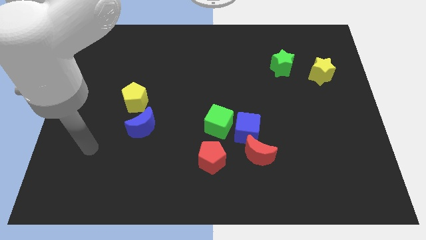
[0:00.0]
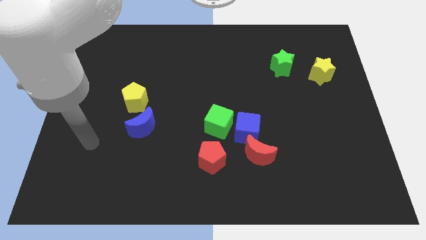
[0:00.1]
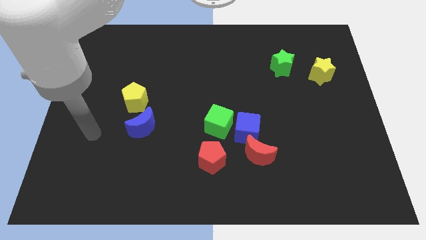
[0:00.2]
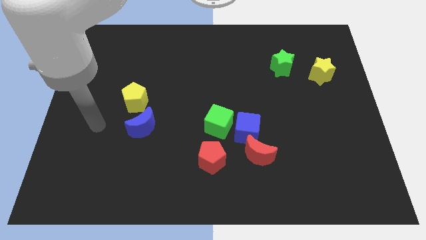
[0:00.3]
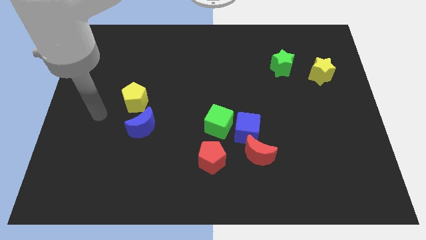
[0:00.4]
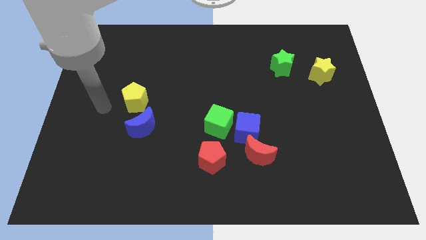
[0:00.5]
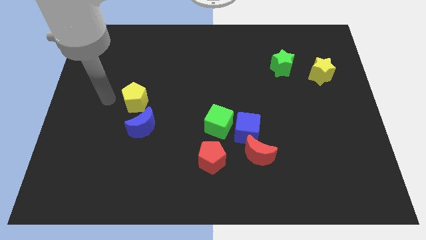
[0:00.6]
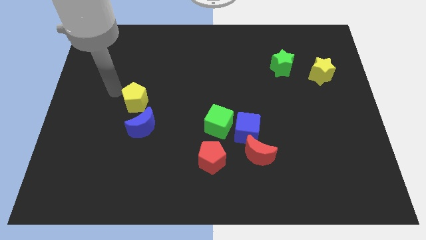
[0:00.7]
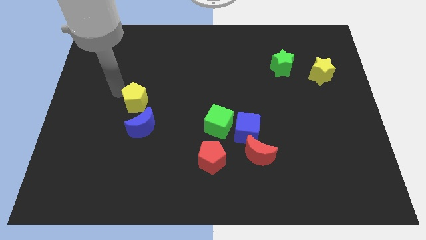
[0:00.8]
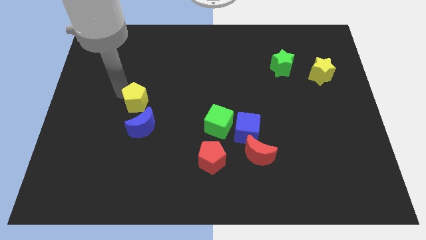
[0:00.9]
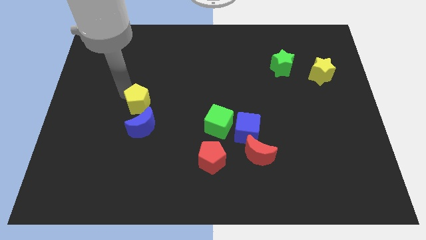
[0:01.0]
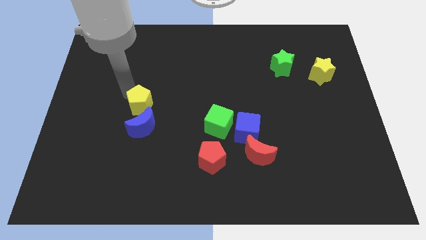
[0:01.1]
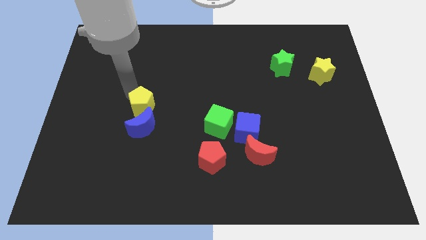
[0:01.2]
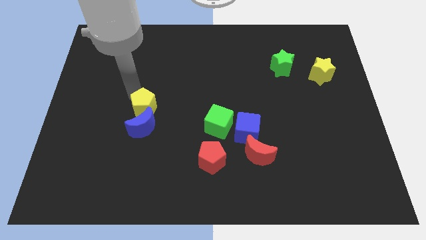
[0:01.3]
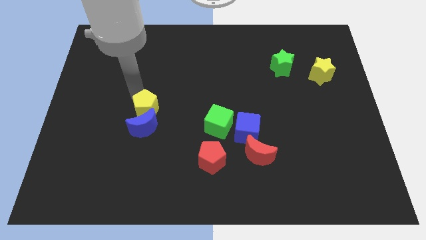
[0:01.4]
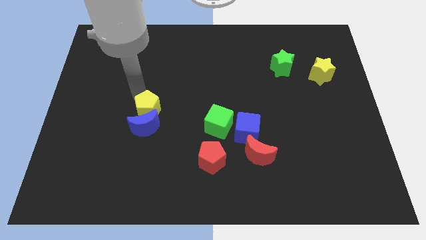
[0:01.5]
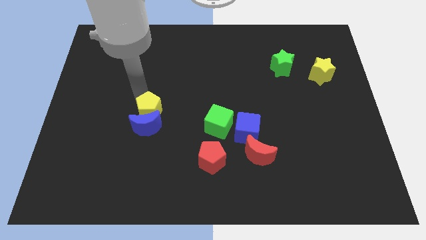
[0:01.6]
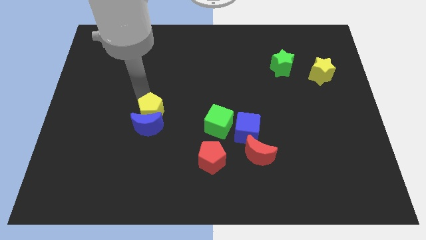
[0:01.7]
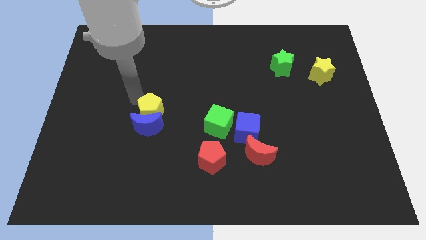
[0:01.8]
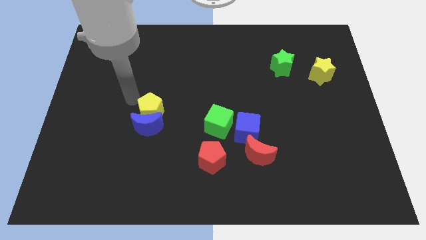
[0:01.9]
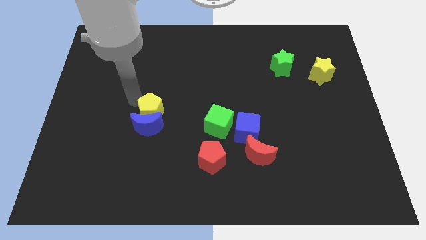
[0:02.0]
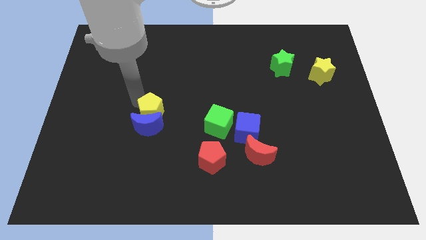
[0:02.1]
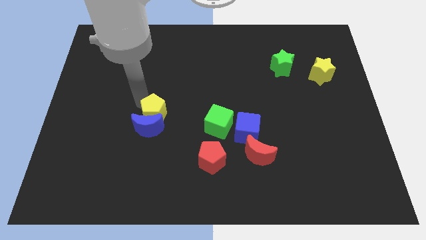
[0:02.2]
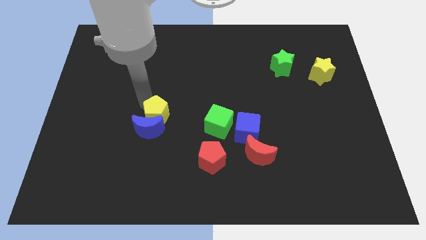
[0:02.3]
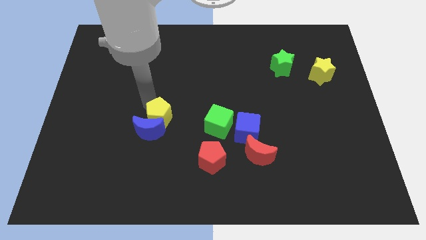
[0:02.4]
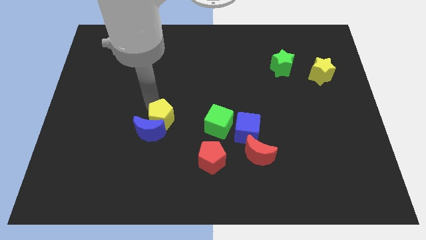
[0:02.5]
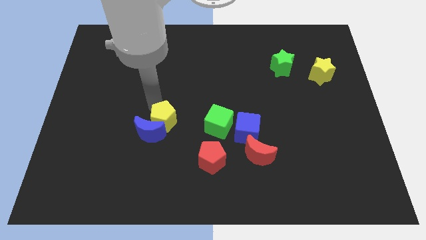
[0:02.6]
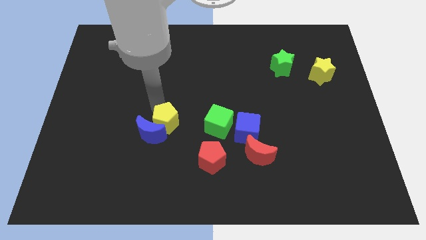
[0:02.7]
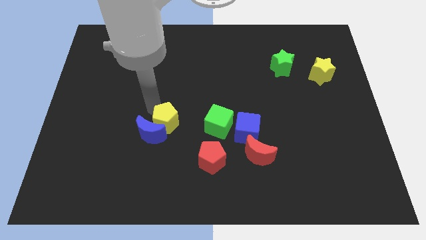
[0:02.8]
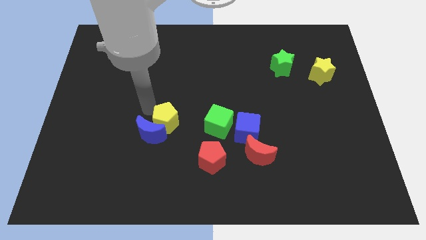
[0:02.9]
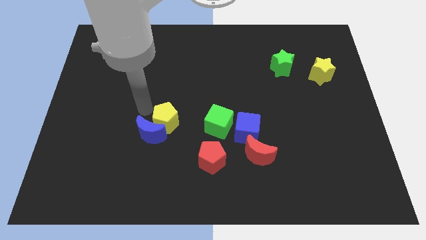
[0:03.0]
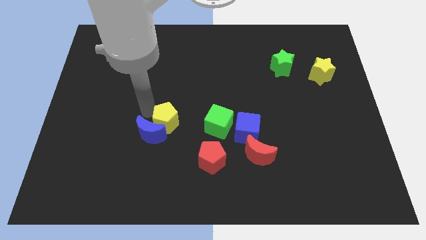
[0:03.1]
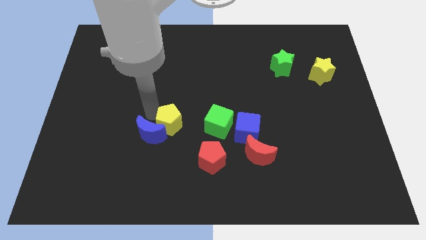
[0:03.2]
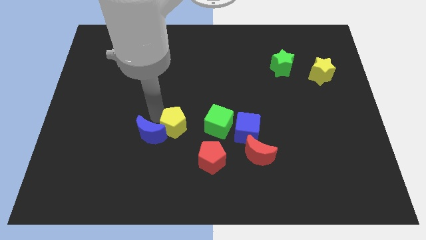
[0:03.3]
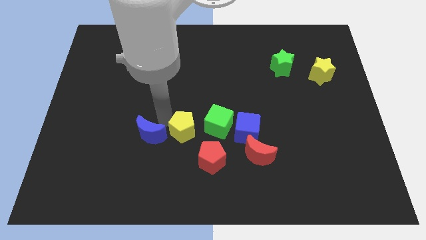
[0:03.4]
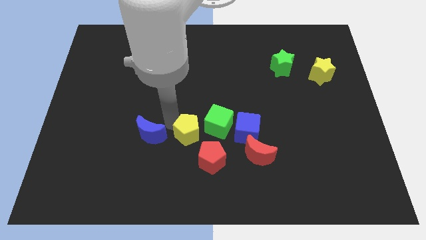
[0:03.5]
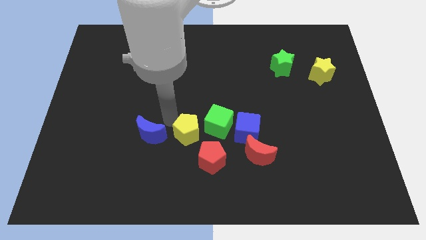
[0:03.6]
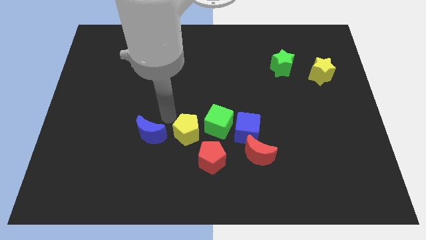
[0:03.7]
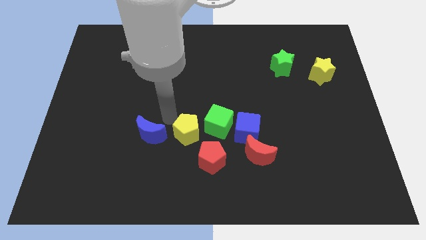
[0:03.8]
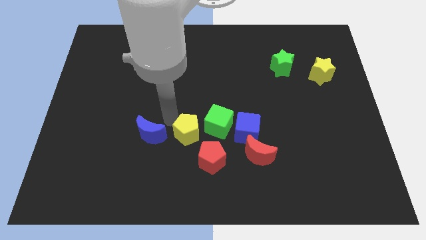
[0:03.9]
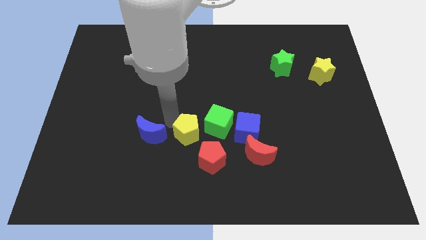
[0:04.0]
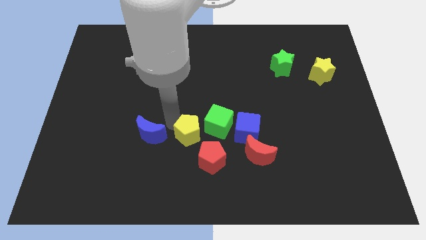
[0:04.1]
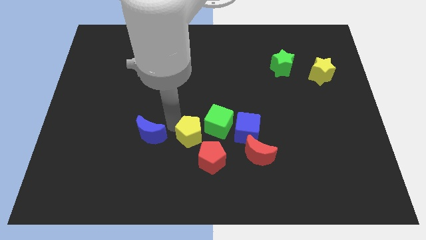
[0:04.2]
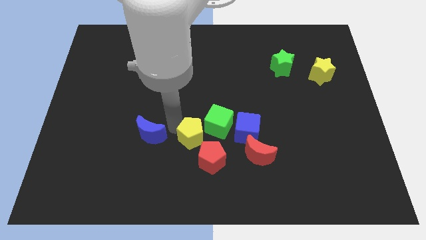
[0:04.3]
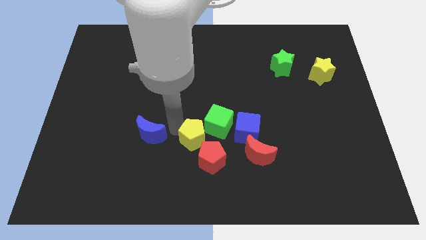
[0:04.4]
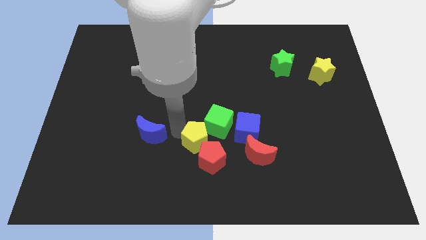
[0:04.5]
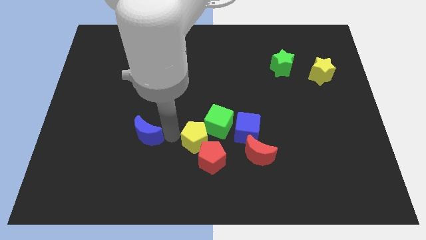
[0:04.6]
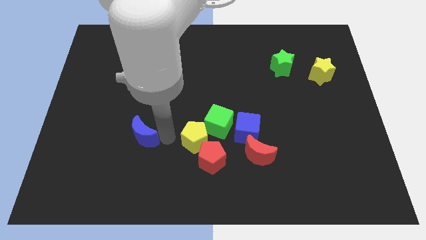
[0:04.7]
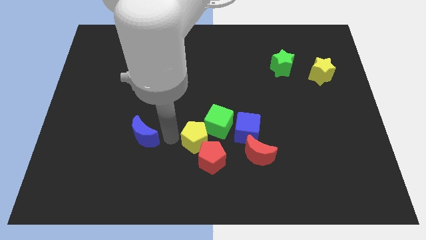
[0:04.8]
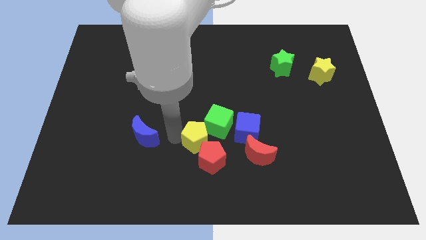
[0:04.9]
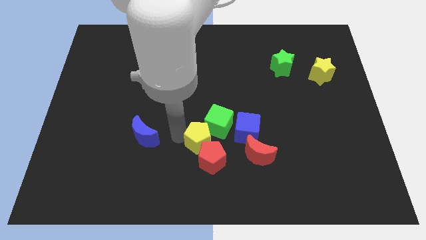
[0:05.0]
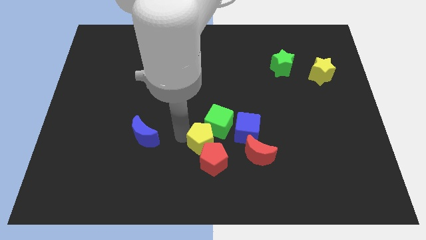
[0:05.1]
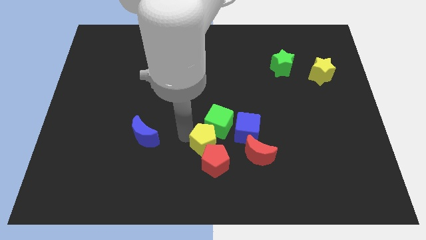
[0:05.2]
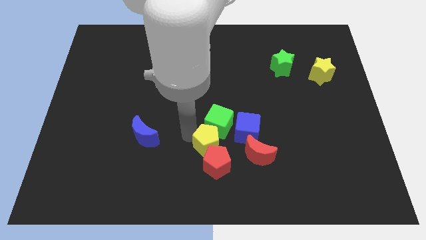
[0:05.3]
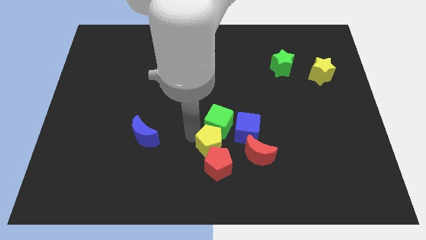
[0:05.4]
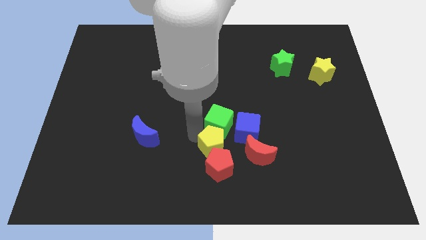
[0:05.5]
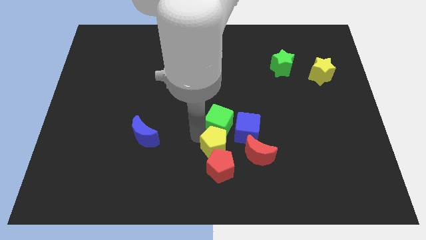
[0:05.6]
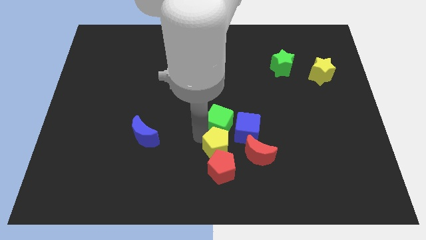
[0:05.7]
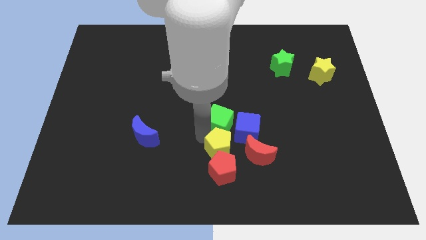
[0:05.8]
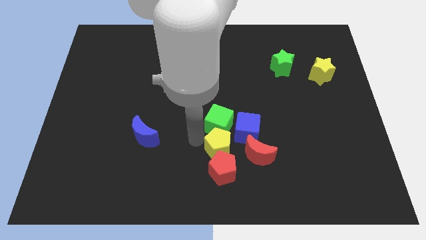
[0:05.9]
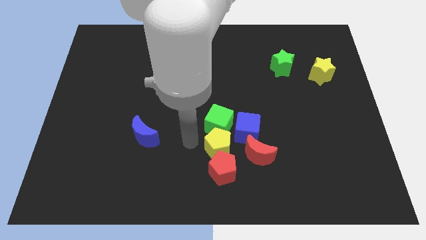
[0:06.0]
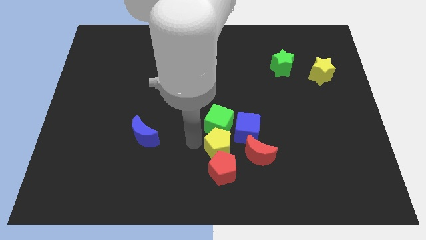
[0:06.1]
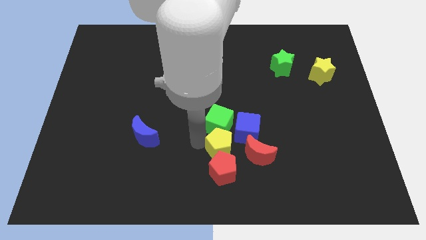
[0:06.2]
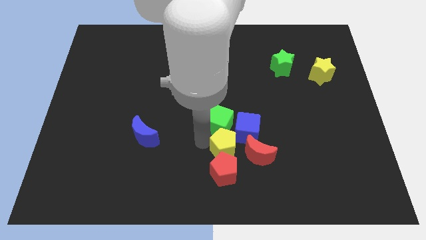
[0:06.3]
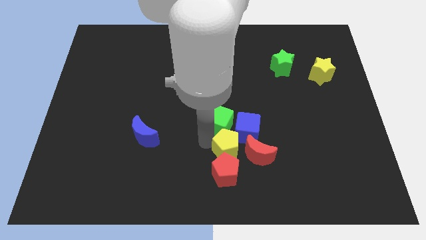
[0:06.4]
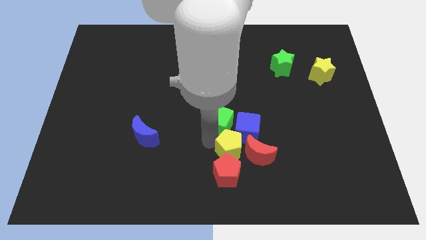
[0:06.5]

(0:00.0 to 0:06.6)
move the yellow pentagon next to the red moon
